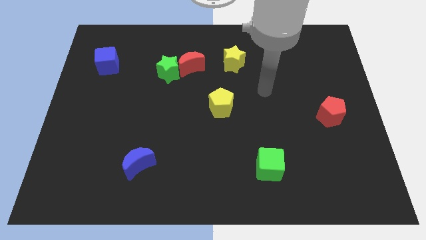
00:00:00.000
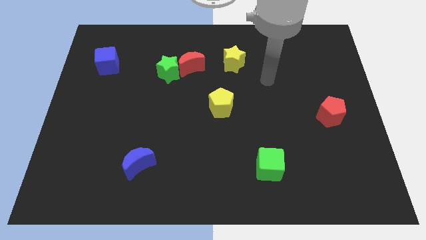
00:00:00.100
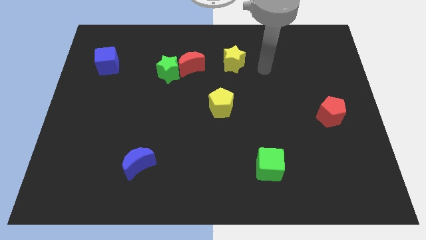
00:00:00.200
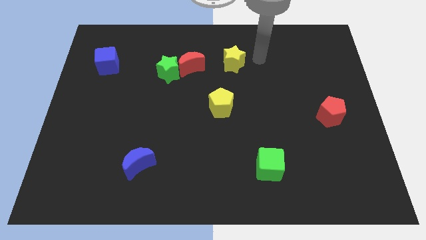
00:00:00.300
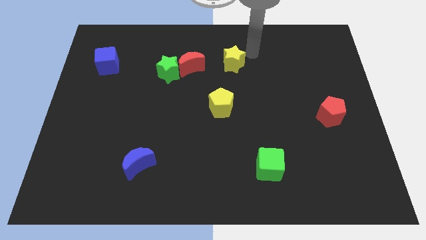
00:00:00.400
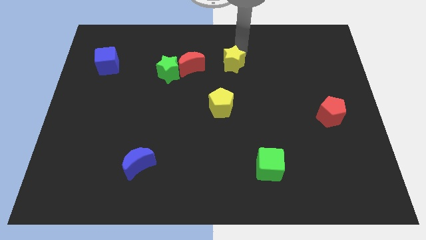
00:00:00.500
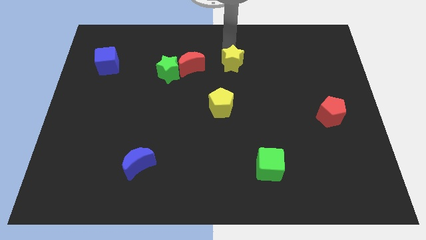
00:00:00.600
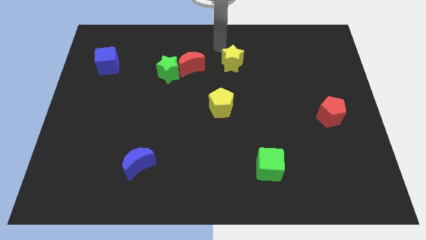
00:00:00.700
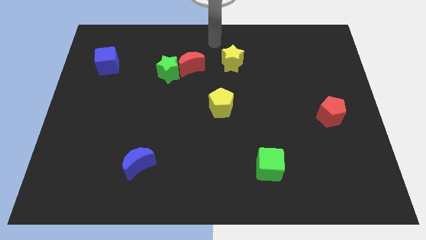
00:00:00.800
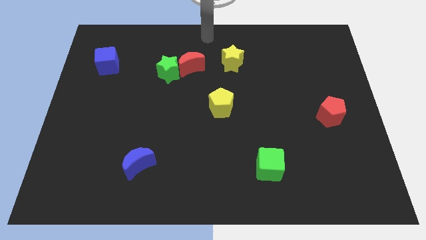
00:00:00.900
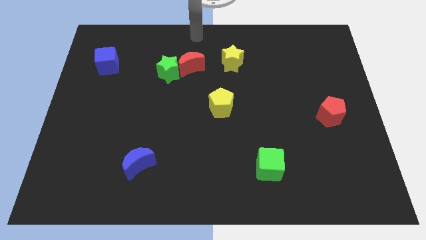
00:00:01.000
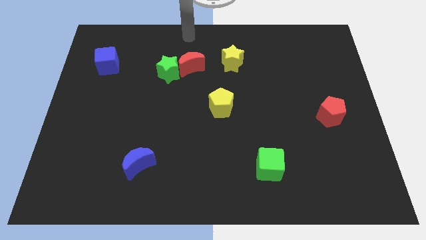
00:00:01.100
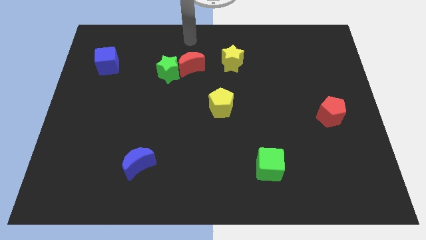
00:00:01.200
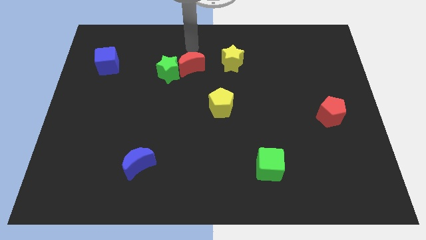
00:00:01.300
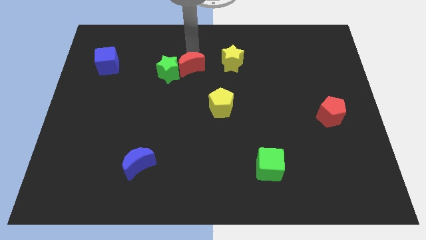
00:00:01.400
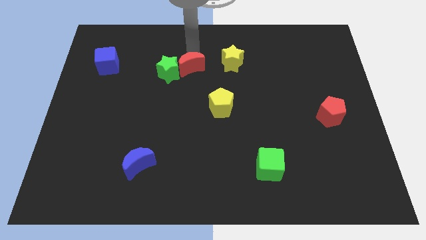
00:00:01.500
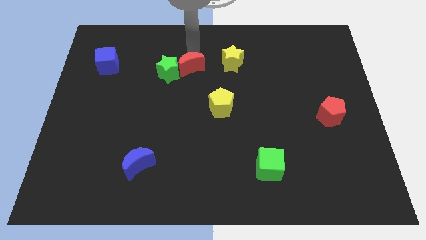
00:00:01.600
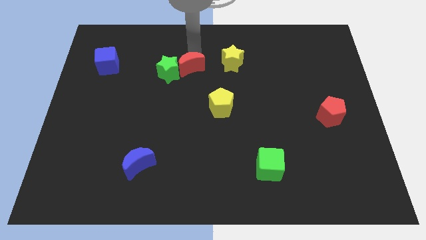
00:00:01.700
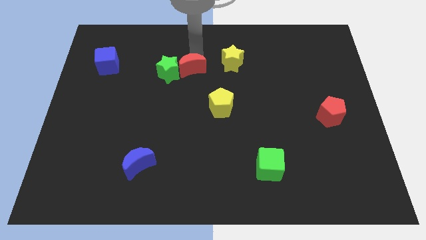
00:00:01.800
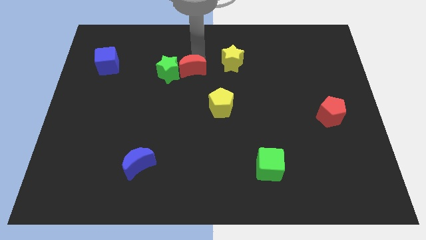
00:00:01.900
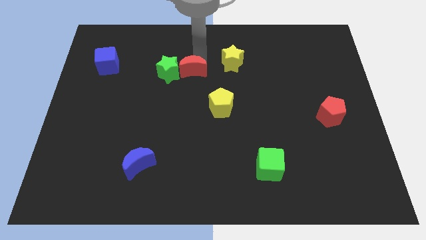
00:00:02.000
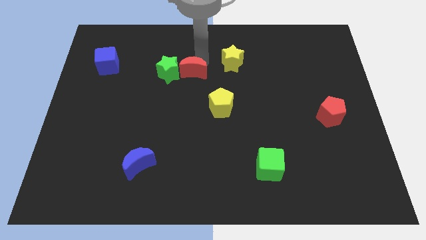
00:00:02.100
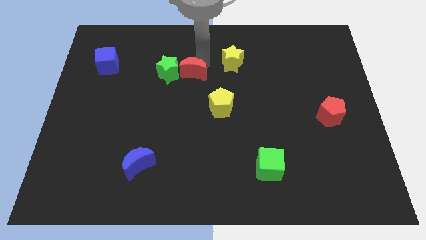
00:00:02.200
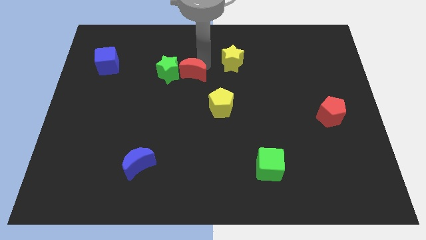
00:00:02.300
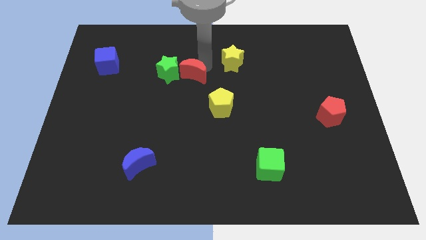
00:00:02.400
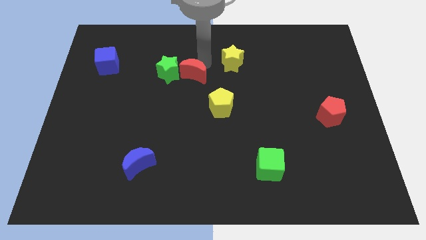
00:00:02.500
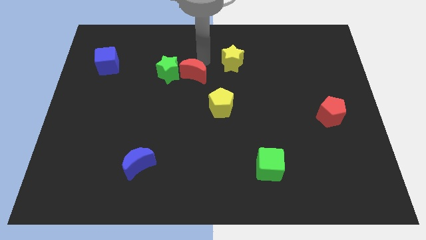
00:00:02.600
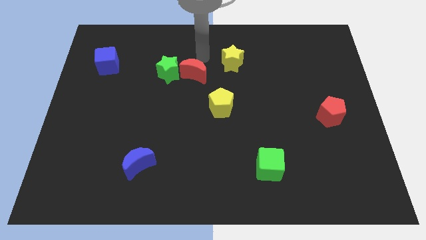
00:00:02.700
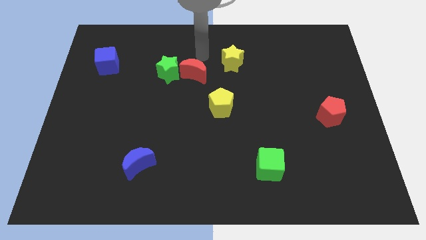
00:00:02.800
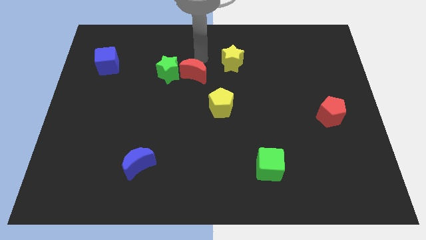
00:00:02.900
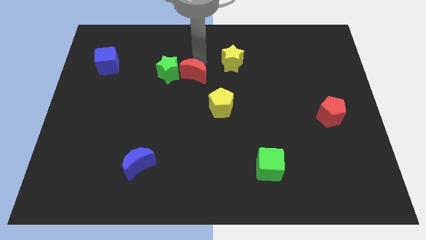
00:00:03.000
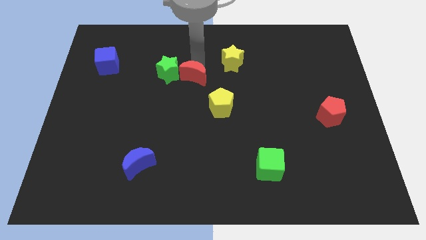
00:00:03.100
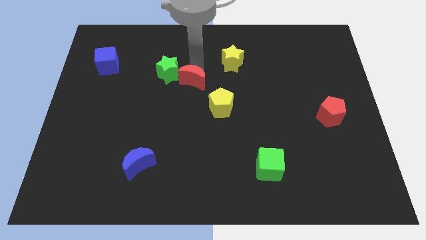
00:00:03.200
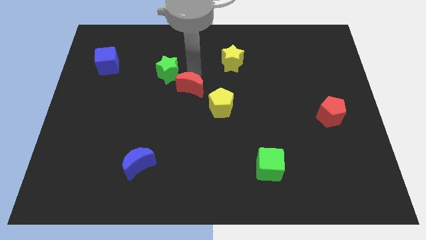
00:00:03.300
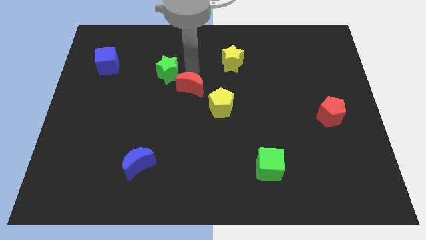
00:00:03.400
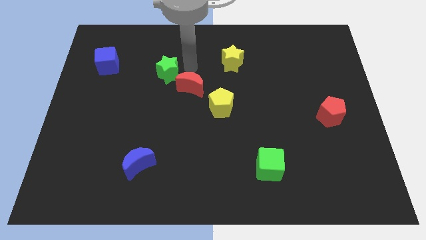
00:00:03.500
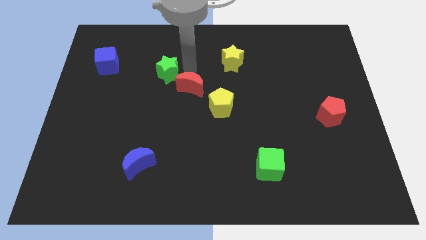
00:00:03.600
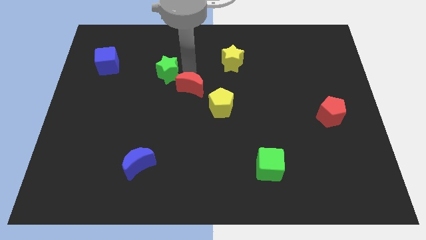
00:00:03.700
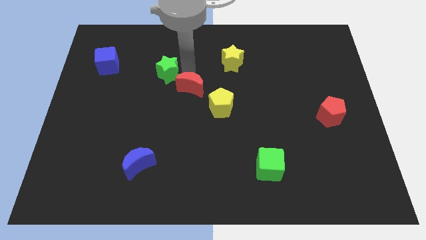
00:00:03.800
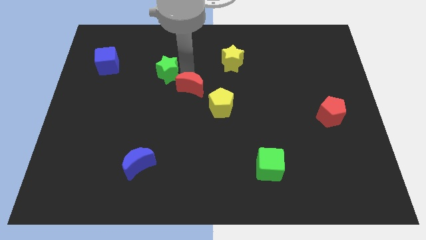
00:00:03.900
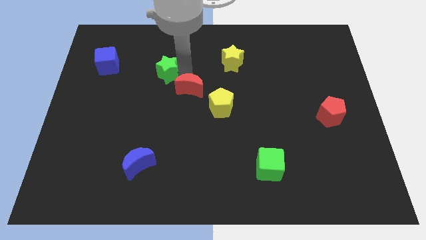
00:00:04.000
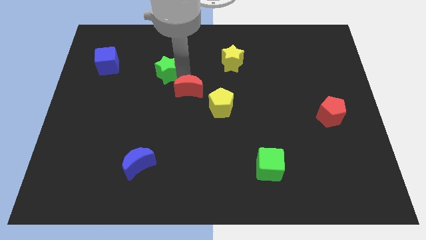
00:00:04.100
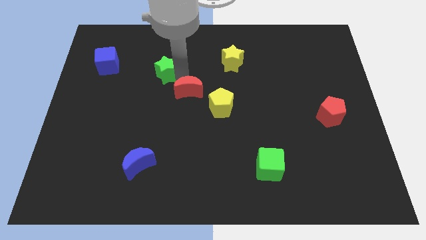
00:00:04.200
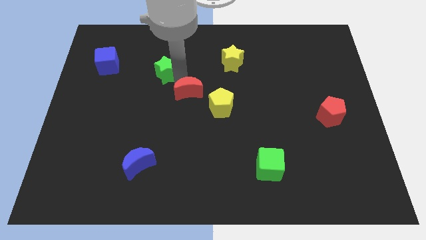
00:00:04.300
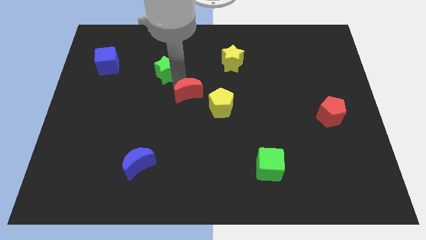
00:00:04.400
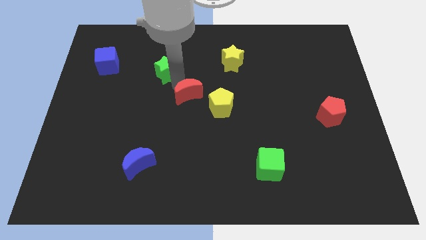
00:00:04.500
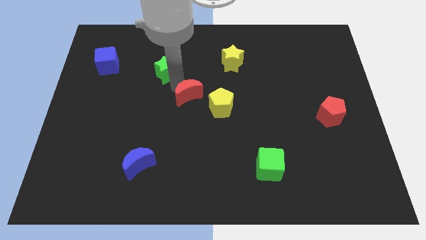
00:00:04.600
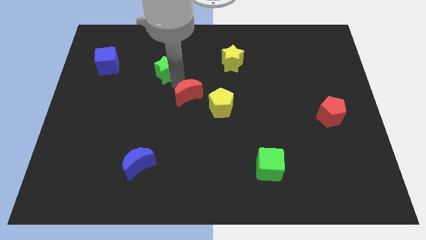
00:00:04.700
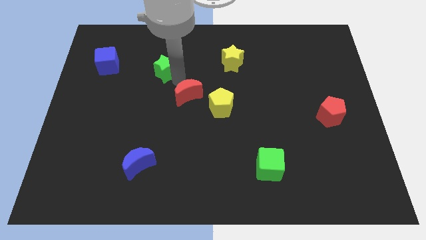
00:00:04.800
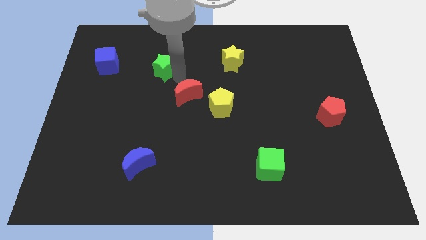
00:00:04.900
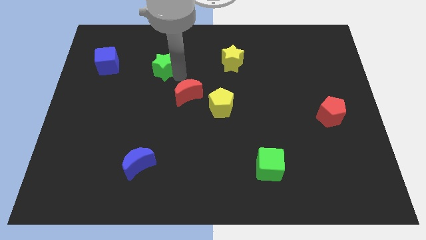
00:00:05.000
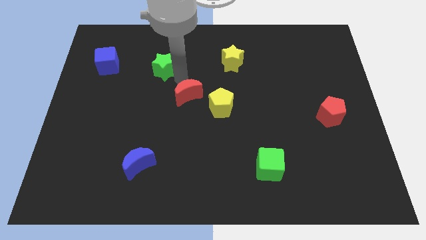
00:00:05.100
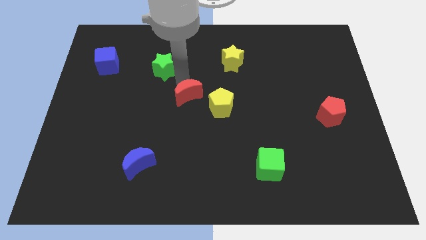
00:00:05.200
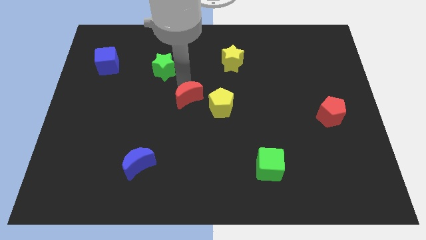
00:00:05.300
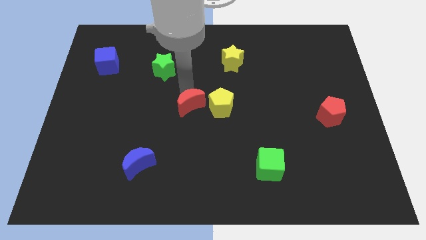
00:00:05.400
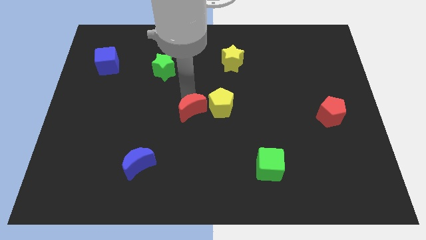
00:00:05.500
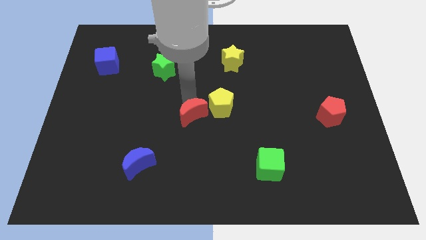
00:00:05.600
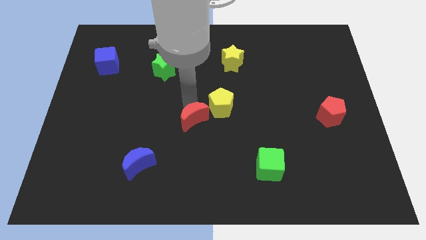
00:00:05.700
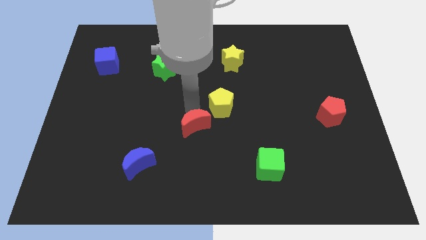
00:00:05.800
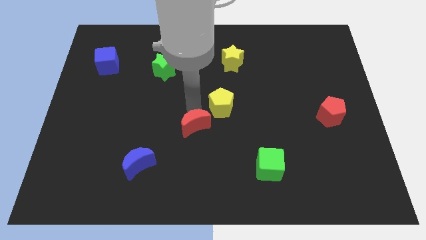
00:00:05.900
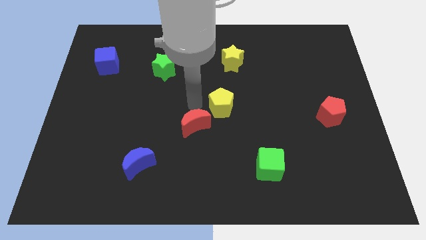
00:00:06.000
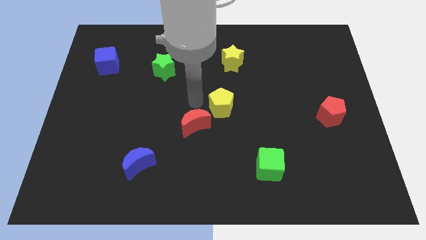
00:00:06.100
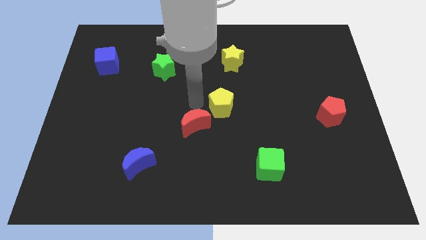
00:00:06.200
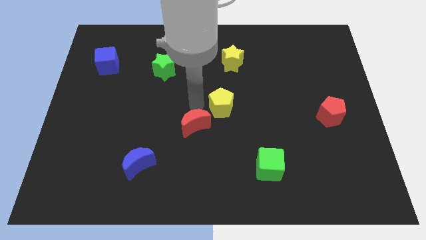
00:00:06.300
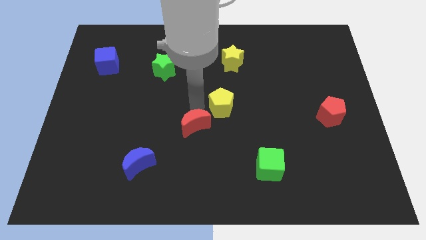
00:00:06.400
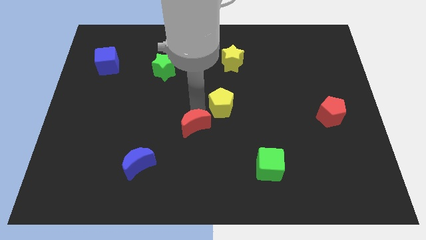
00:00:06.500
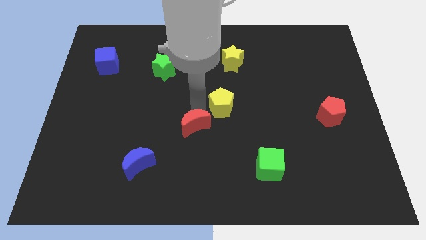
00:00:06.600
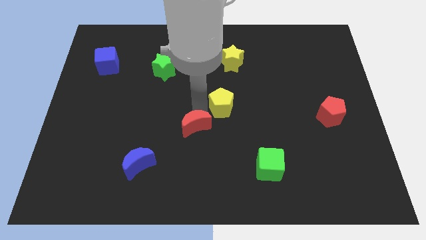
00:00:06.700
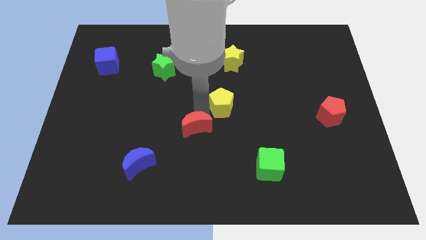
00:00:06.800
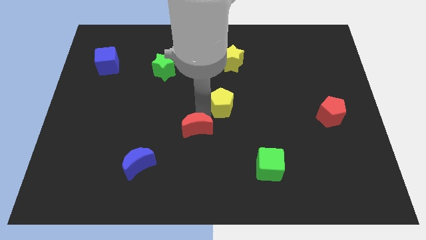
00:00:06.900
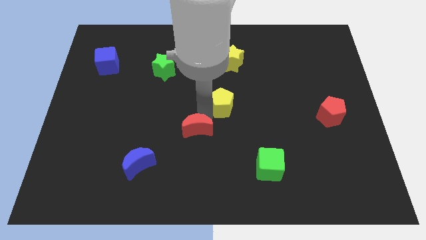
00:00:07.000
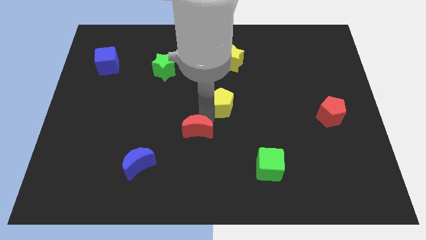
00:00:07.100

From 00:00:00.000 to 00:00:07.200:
move the red moon downwards

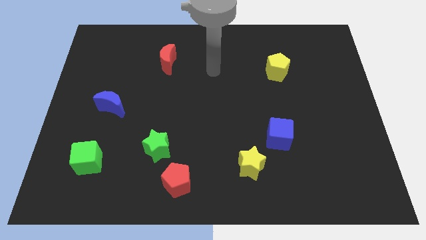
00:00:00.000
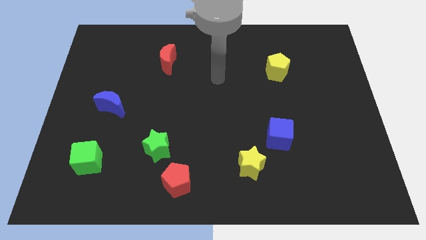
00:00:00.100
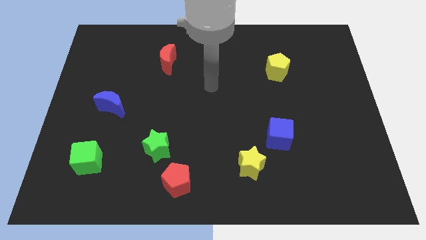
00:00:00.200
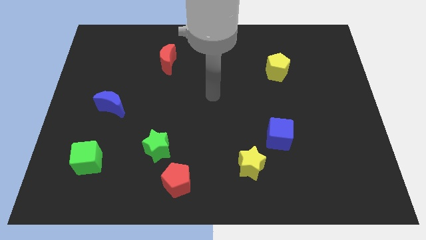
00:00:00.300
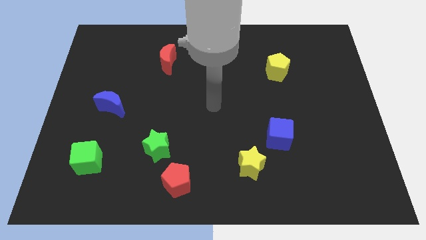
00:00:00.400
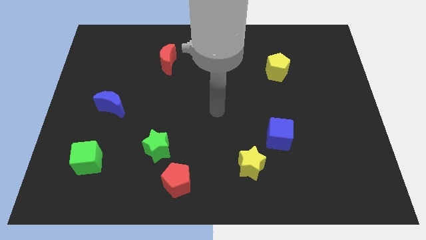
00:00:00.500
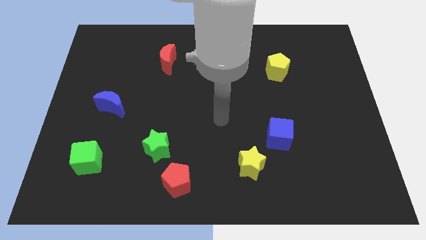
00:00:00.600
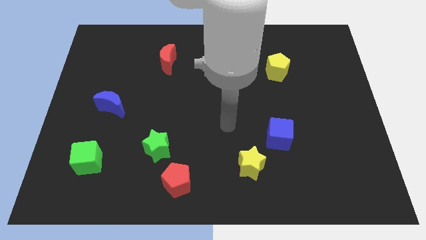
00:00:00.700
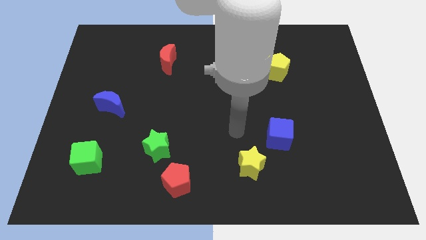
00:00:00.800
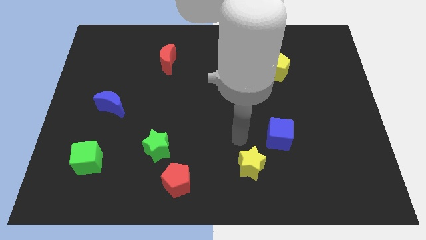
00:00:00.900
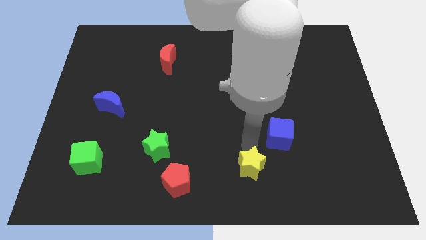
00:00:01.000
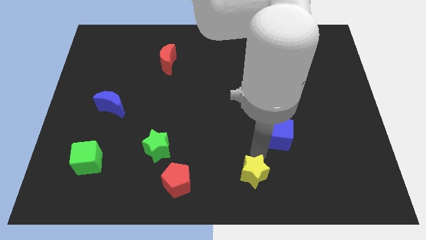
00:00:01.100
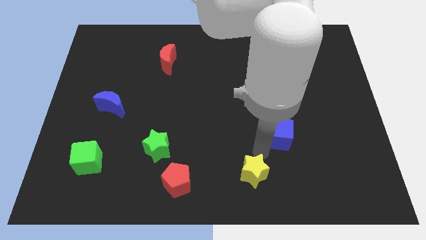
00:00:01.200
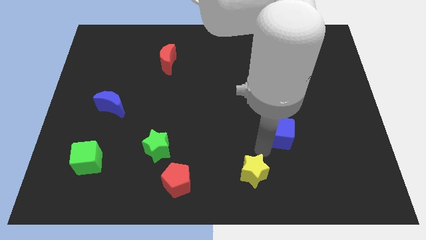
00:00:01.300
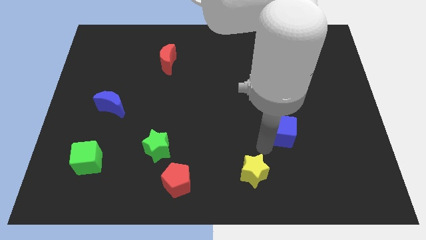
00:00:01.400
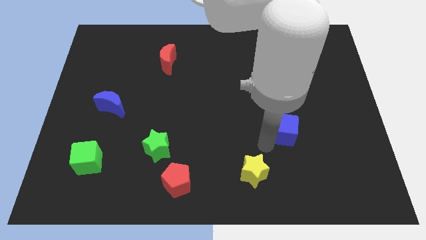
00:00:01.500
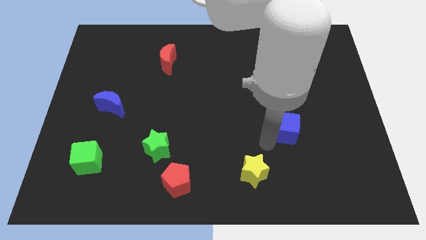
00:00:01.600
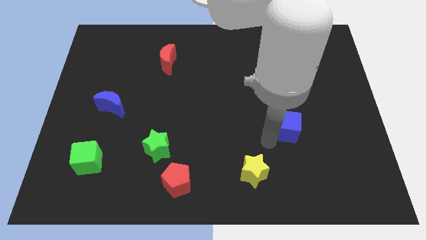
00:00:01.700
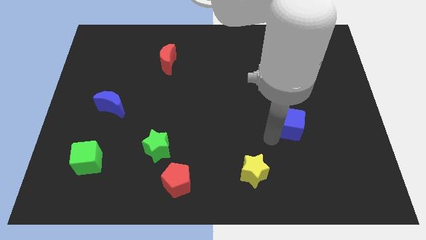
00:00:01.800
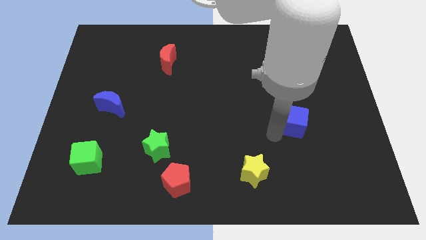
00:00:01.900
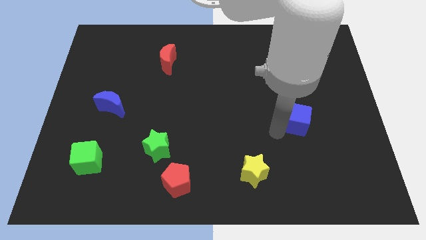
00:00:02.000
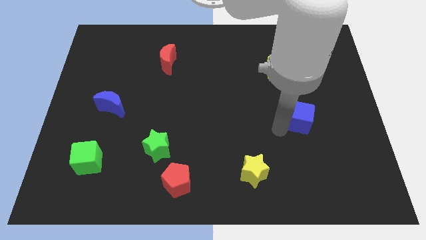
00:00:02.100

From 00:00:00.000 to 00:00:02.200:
push the blue cube a little bit upwards and to the right
